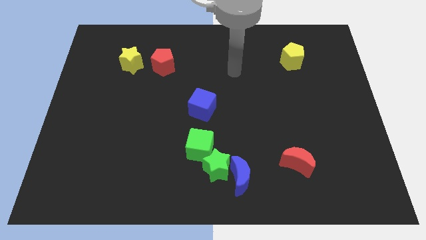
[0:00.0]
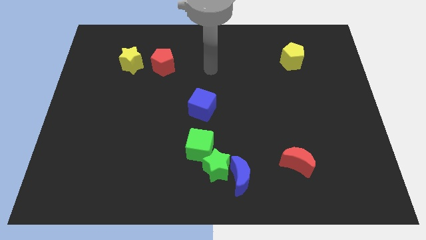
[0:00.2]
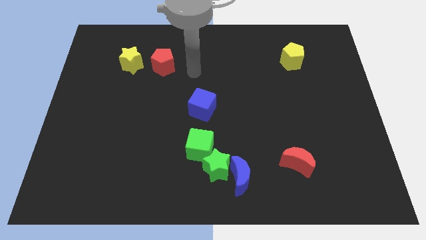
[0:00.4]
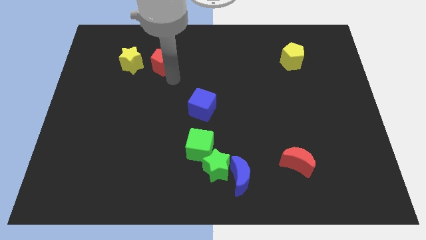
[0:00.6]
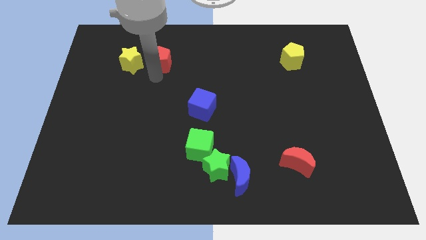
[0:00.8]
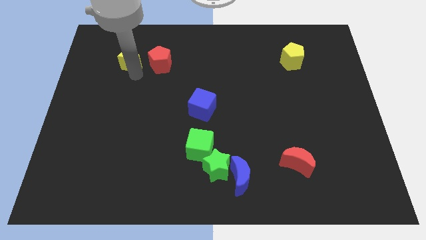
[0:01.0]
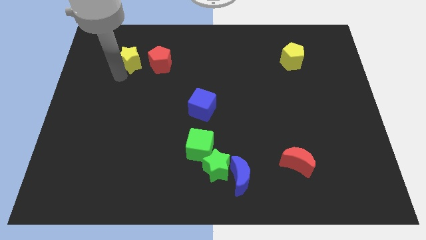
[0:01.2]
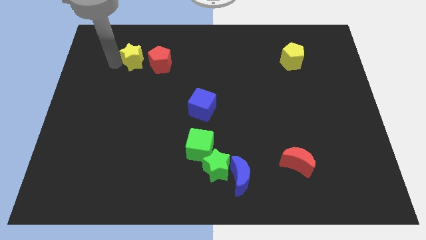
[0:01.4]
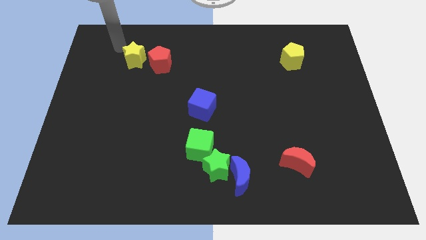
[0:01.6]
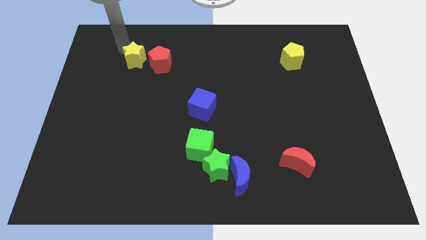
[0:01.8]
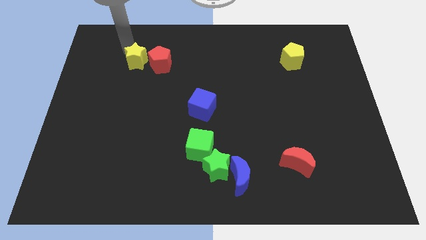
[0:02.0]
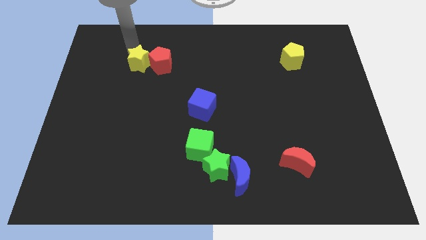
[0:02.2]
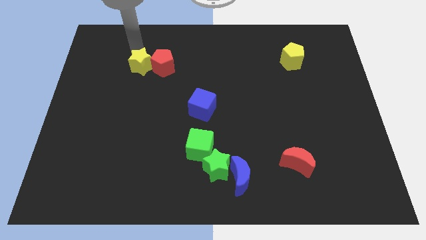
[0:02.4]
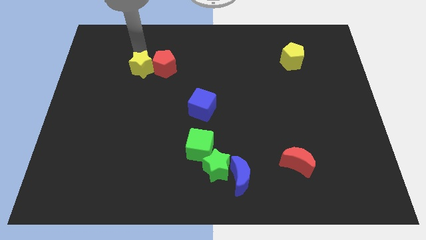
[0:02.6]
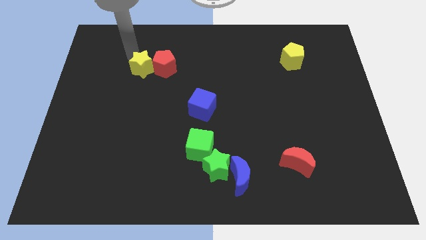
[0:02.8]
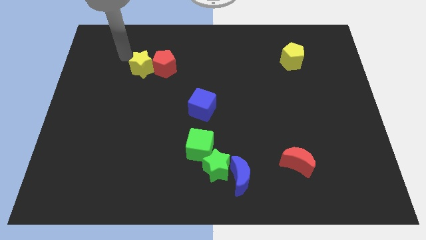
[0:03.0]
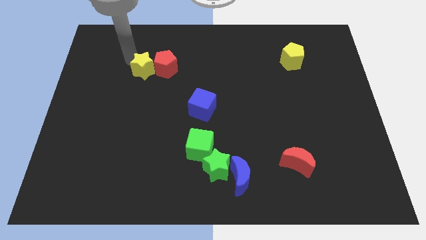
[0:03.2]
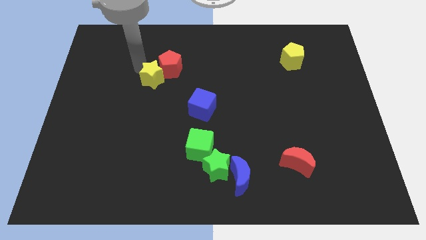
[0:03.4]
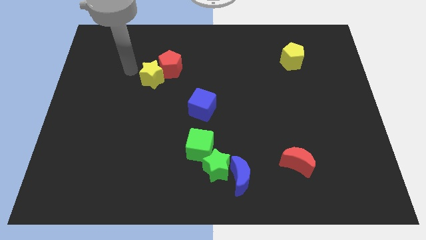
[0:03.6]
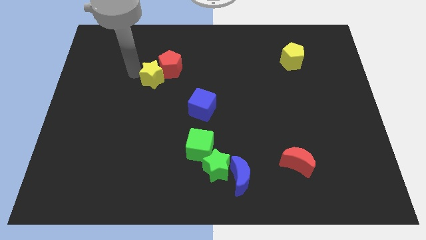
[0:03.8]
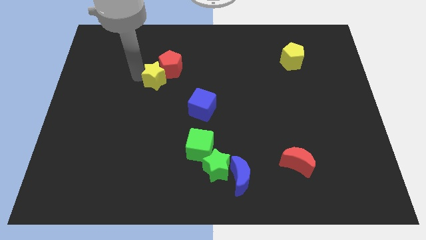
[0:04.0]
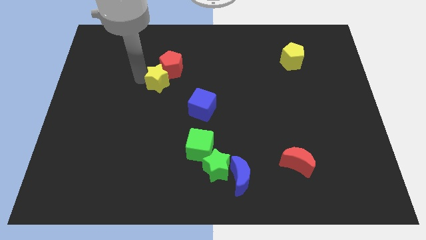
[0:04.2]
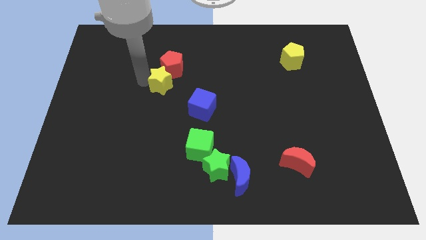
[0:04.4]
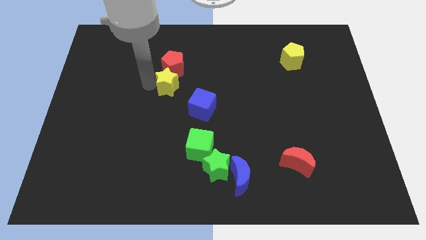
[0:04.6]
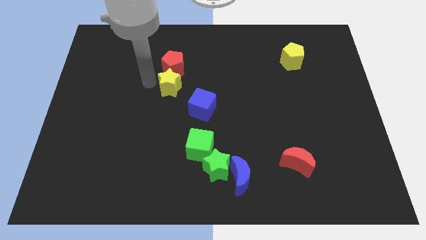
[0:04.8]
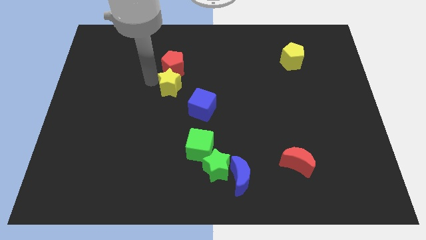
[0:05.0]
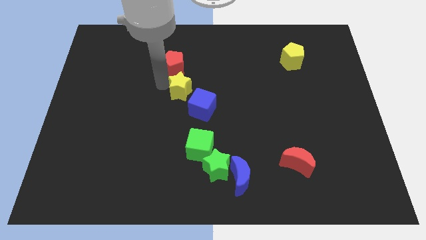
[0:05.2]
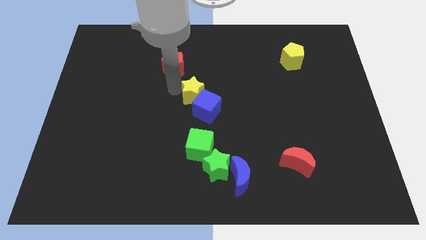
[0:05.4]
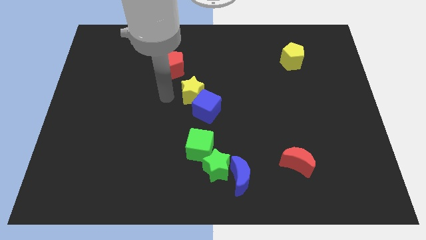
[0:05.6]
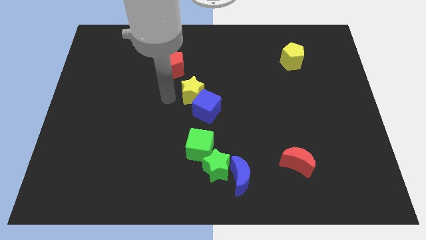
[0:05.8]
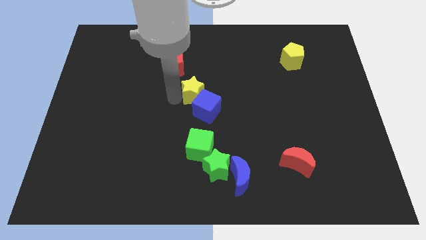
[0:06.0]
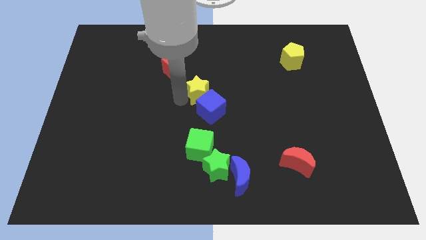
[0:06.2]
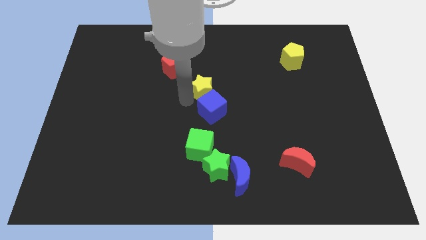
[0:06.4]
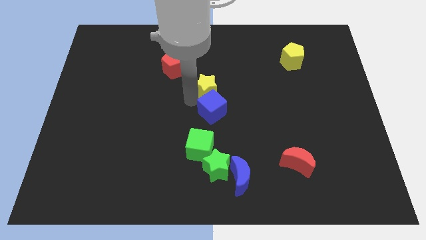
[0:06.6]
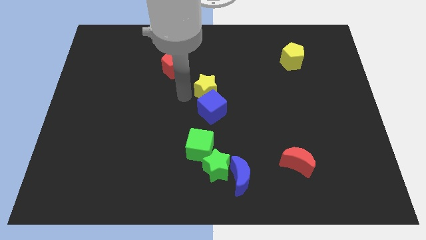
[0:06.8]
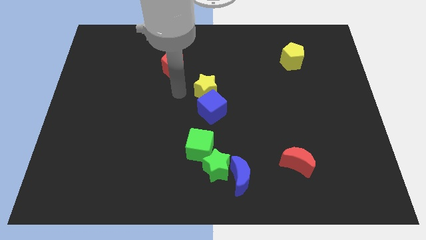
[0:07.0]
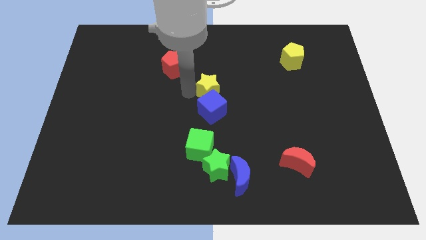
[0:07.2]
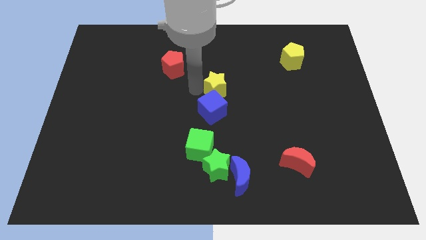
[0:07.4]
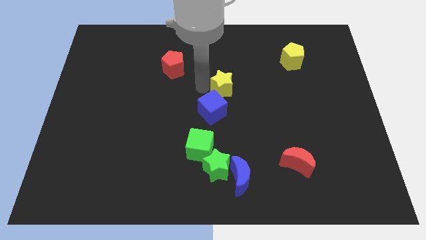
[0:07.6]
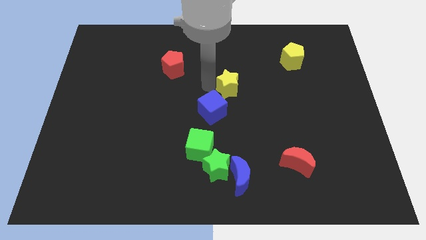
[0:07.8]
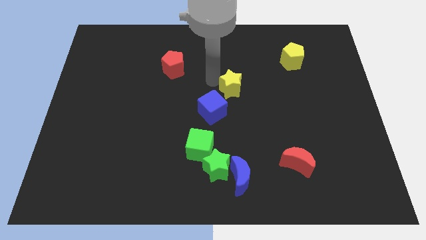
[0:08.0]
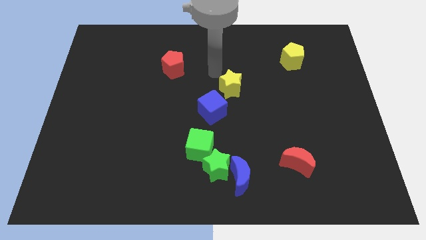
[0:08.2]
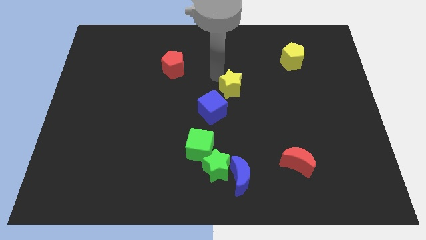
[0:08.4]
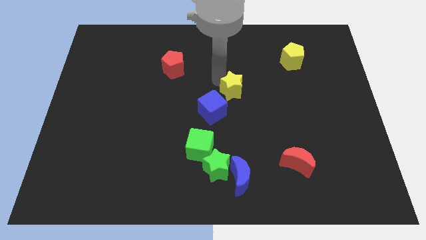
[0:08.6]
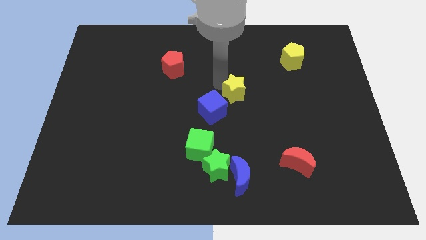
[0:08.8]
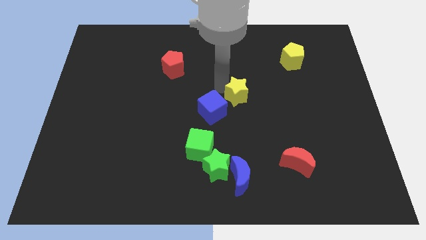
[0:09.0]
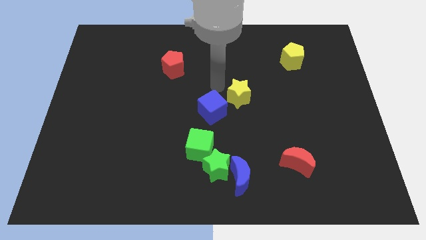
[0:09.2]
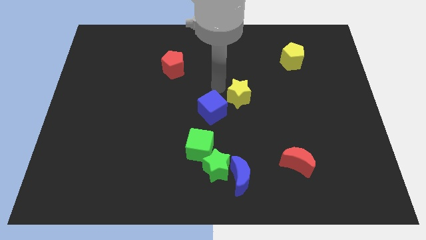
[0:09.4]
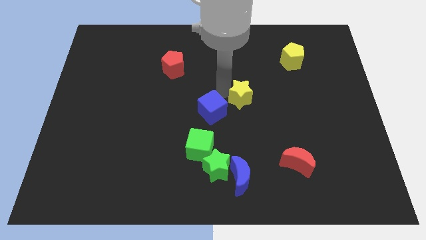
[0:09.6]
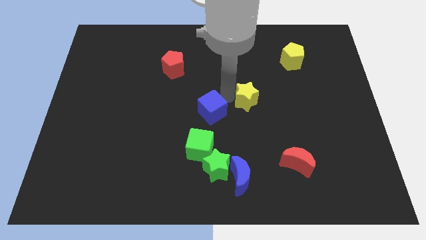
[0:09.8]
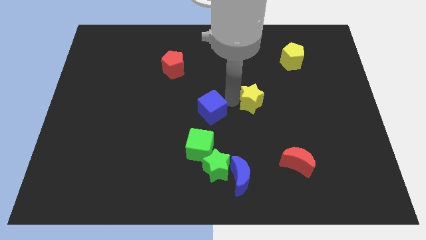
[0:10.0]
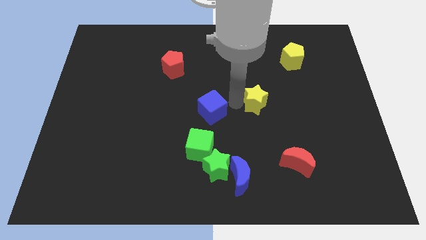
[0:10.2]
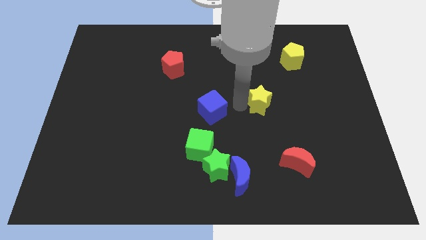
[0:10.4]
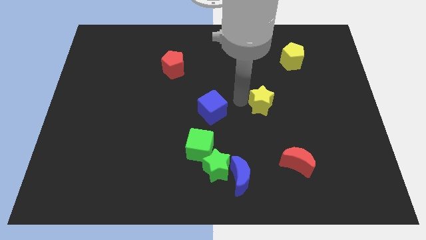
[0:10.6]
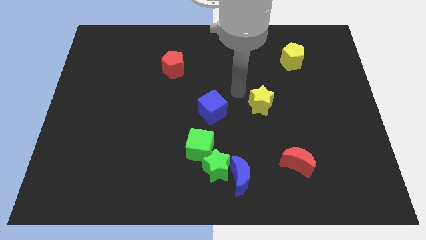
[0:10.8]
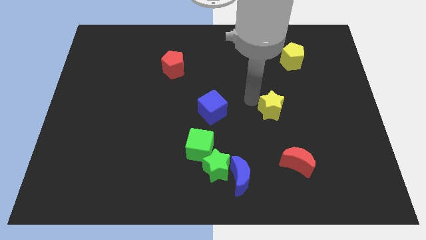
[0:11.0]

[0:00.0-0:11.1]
slide the yellow star to the top side of the red moon

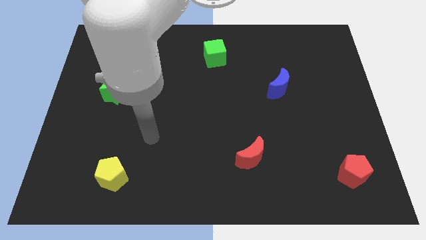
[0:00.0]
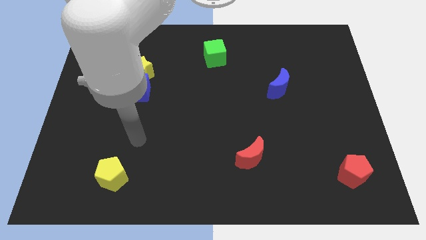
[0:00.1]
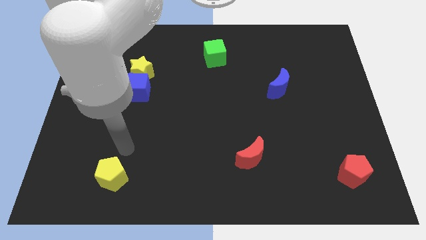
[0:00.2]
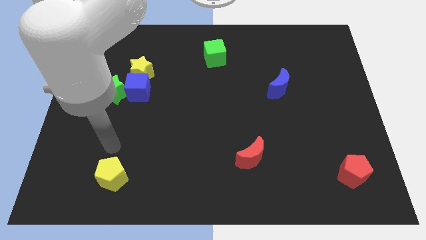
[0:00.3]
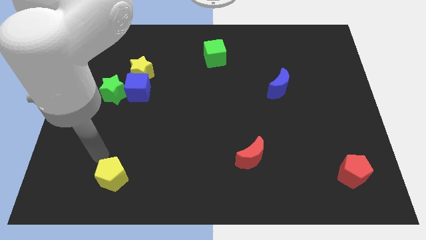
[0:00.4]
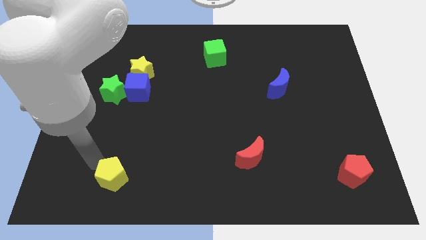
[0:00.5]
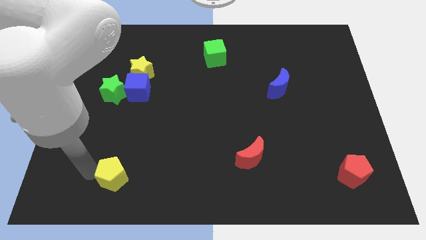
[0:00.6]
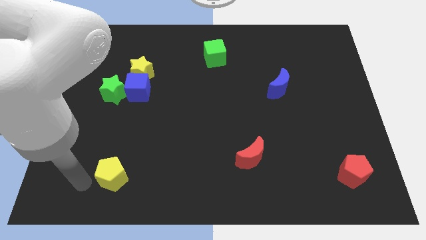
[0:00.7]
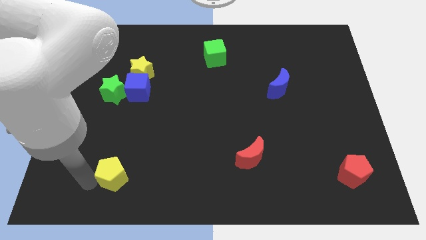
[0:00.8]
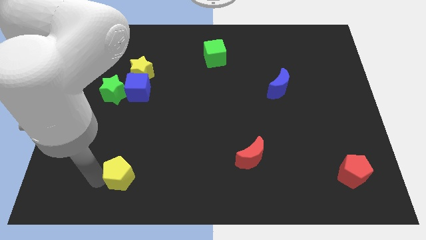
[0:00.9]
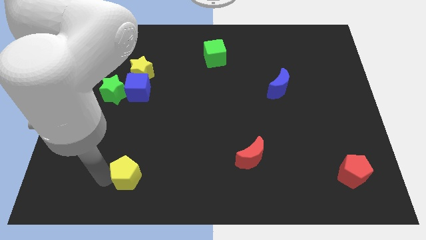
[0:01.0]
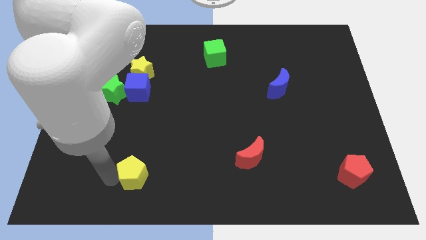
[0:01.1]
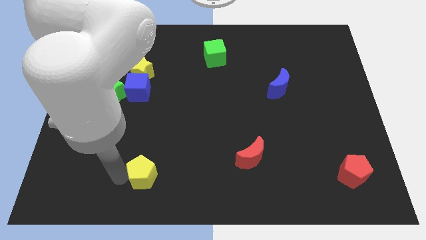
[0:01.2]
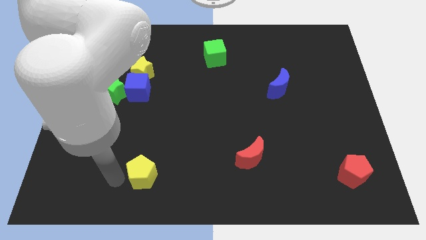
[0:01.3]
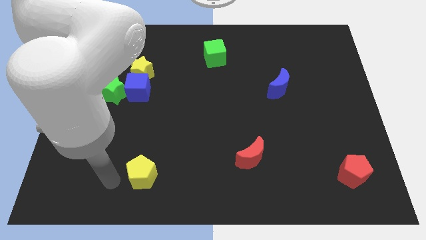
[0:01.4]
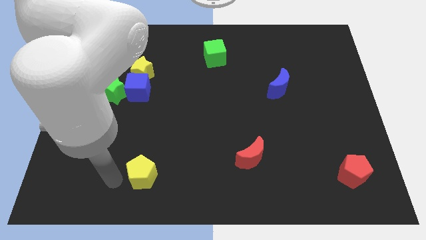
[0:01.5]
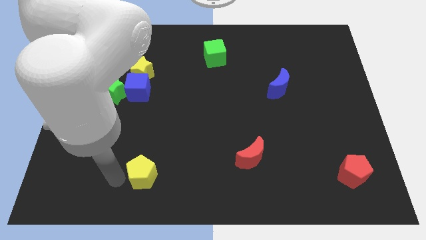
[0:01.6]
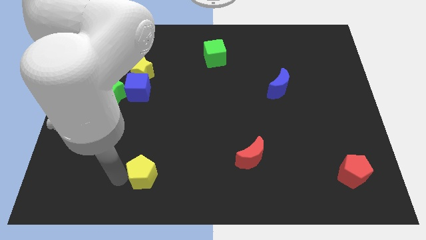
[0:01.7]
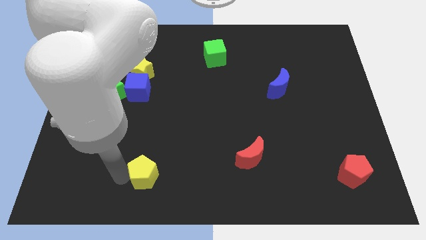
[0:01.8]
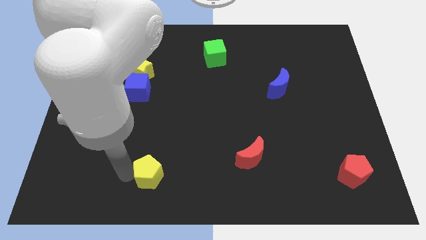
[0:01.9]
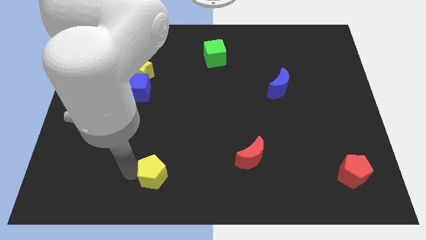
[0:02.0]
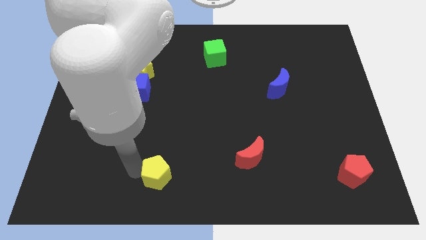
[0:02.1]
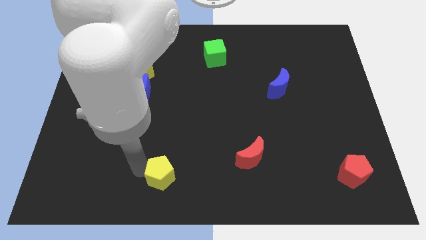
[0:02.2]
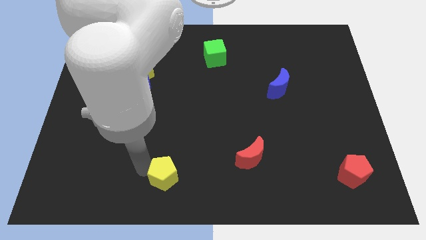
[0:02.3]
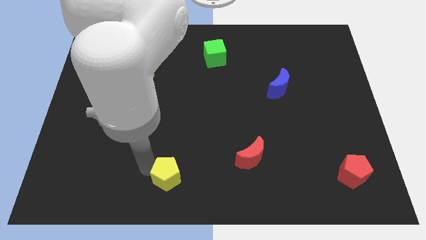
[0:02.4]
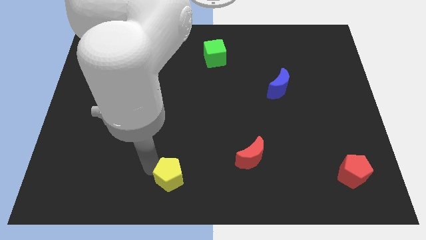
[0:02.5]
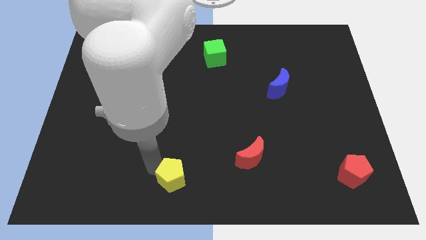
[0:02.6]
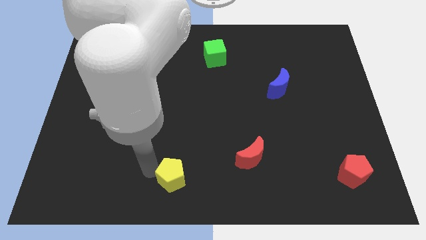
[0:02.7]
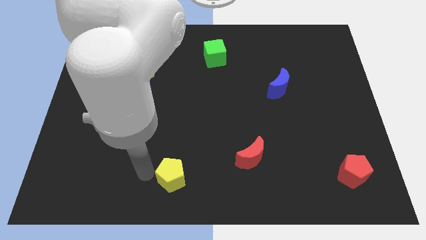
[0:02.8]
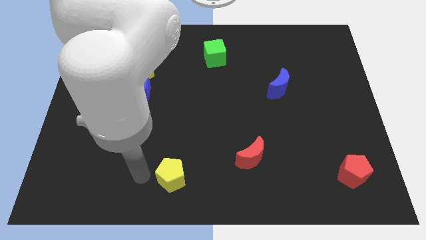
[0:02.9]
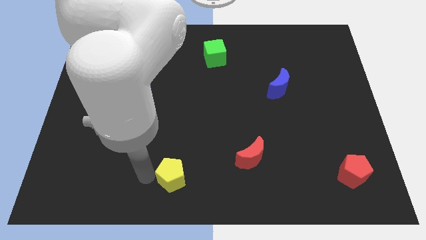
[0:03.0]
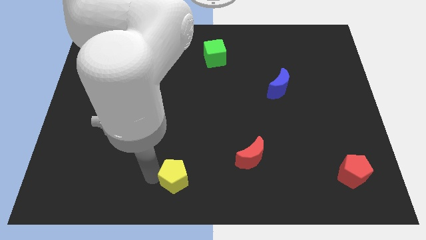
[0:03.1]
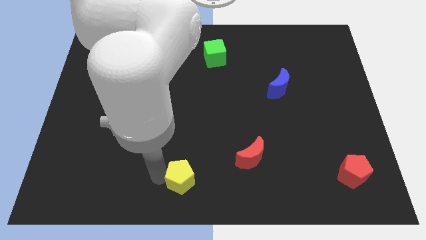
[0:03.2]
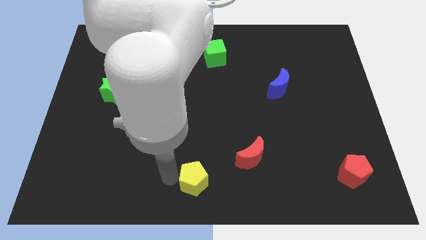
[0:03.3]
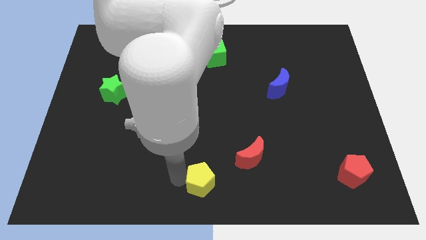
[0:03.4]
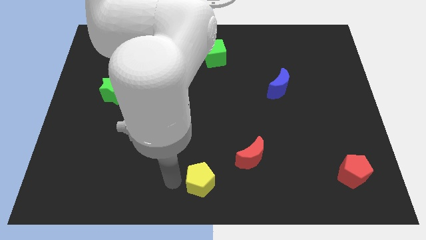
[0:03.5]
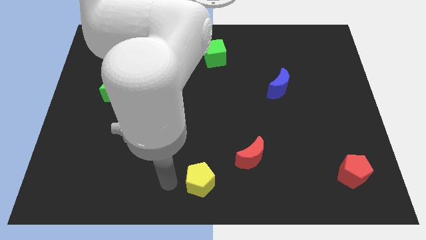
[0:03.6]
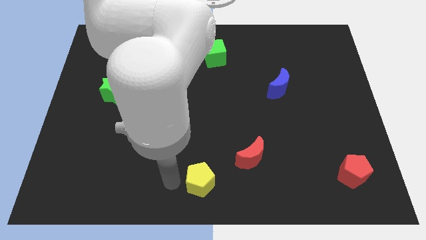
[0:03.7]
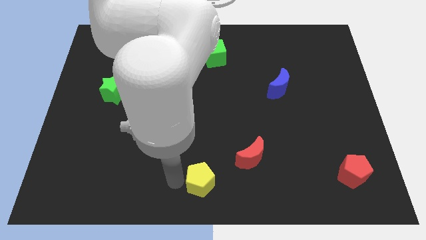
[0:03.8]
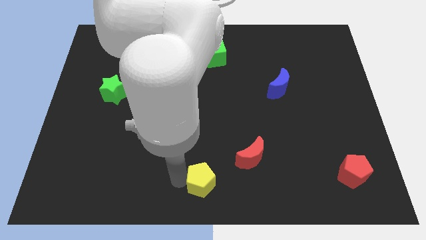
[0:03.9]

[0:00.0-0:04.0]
move the yellow pentagon to the bottom left side of the red moon
